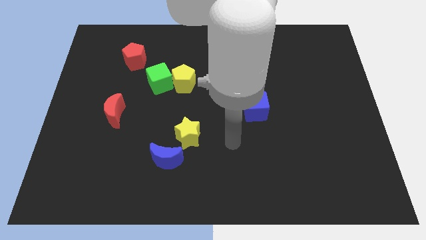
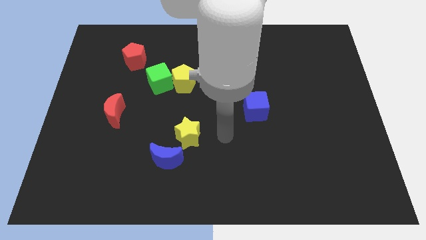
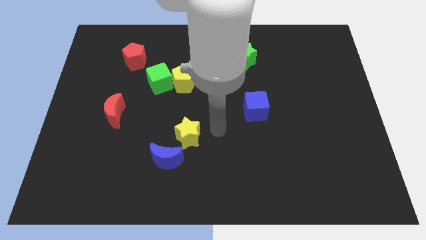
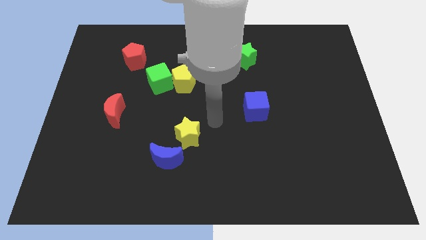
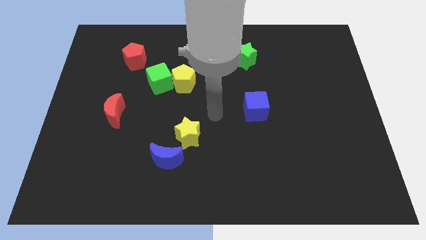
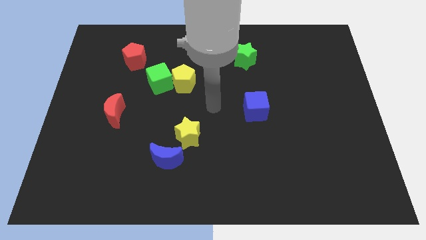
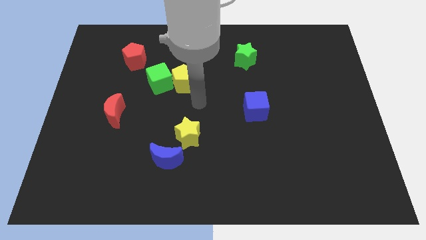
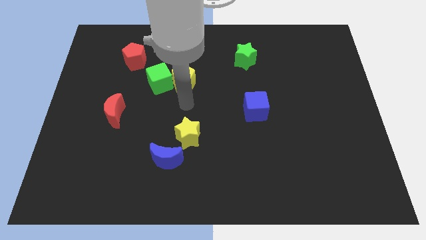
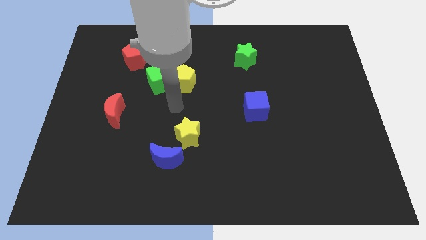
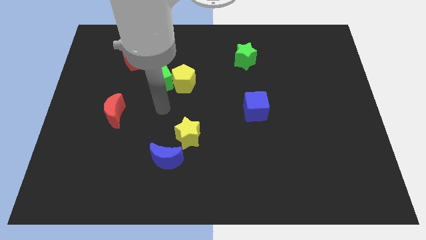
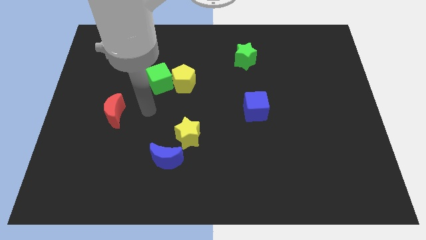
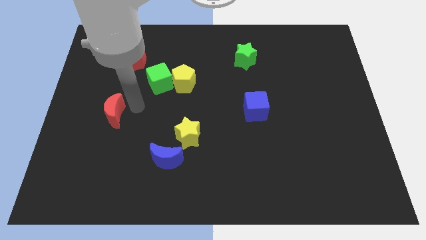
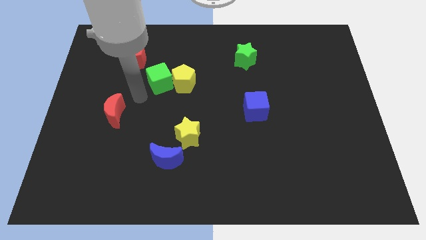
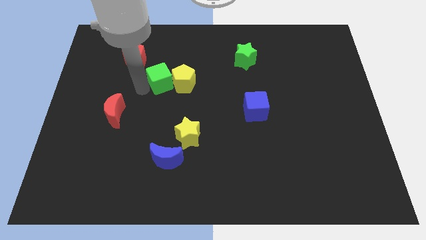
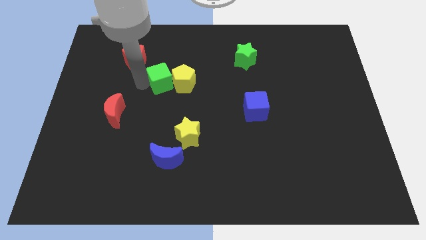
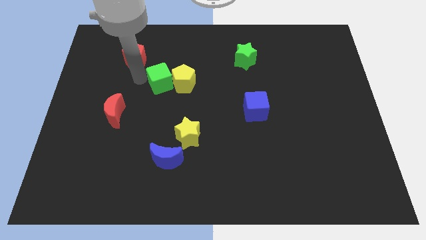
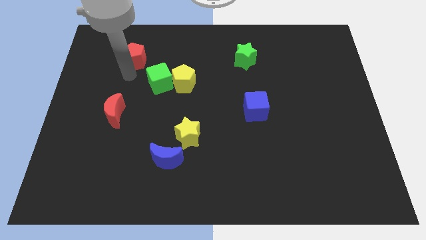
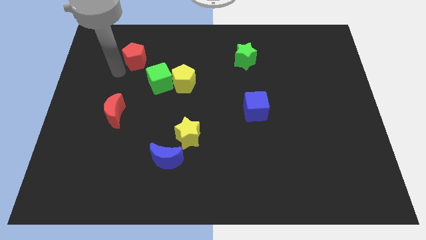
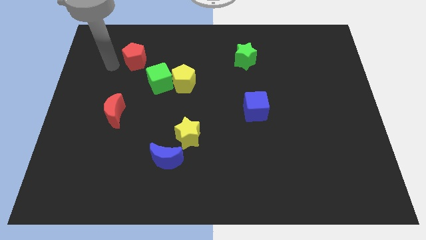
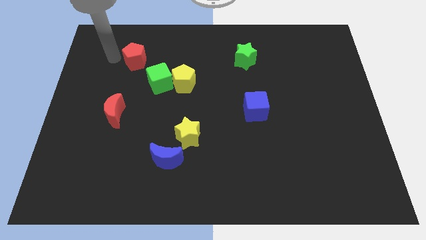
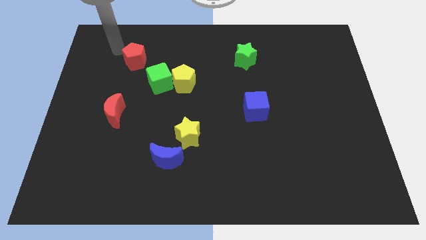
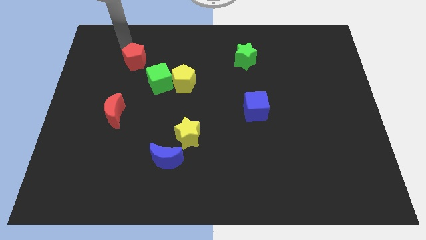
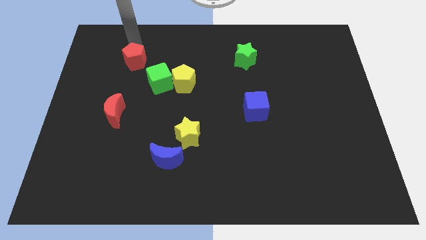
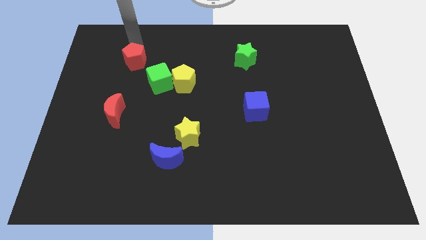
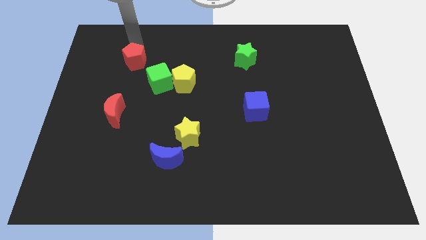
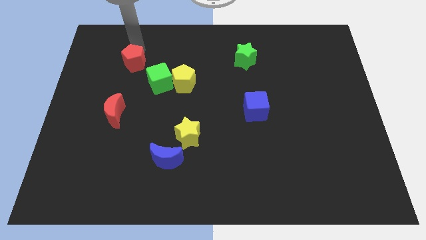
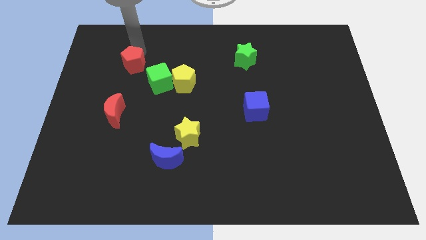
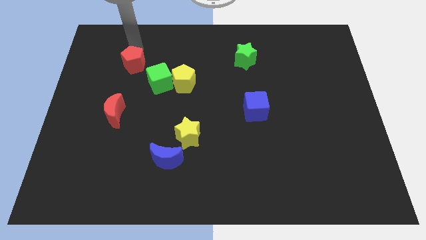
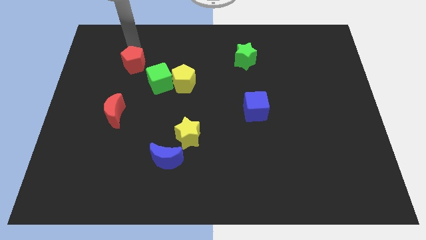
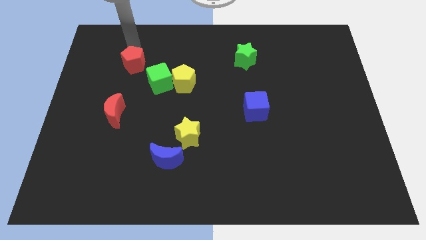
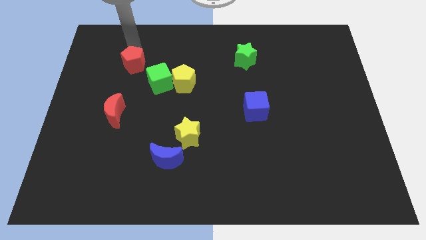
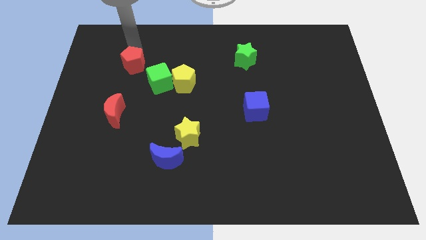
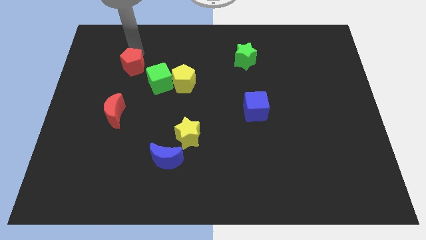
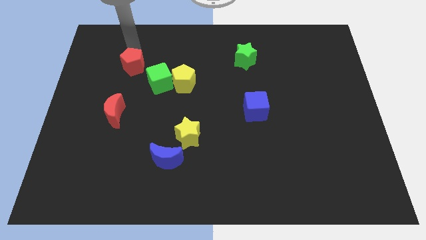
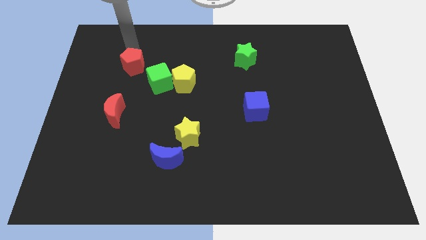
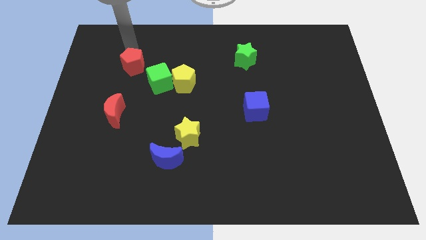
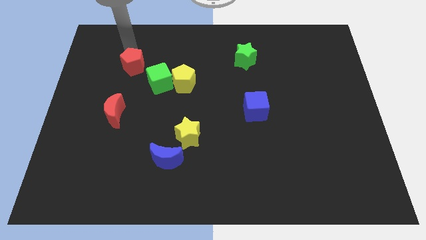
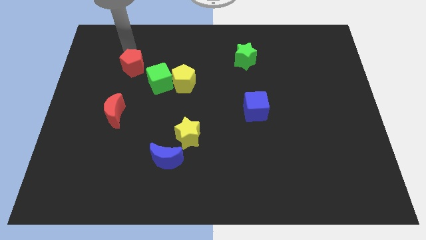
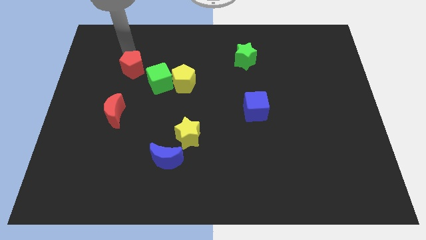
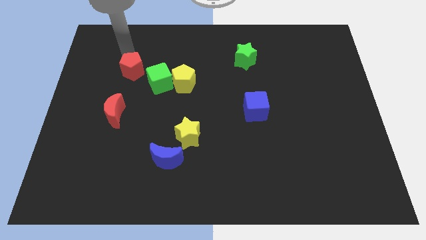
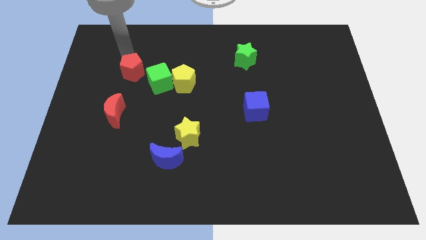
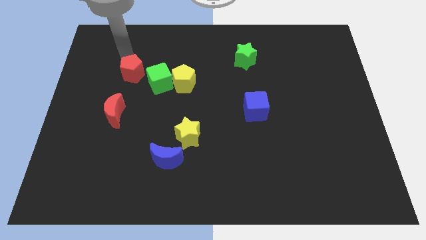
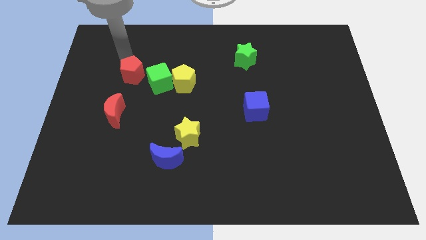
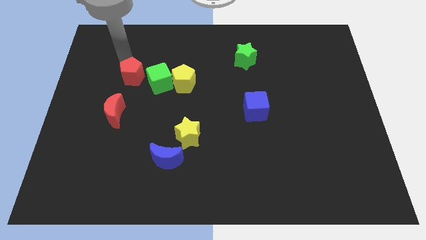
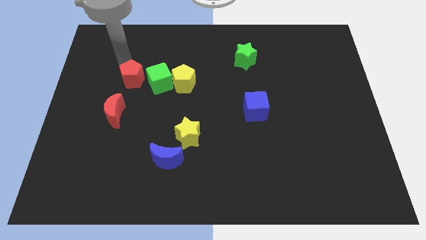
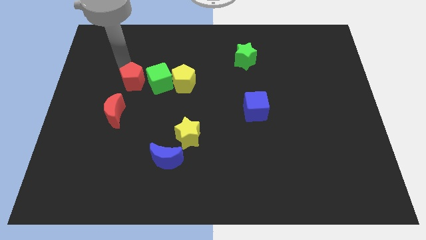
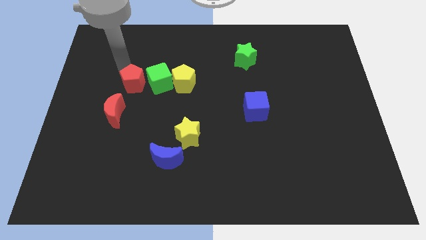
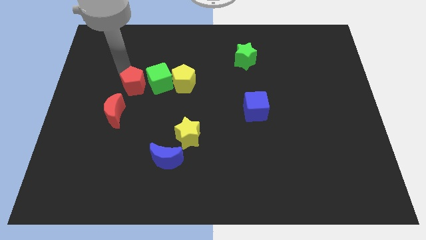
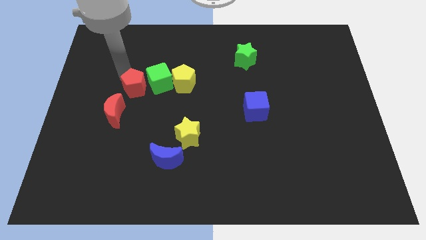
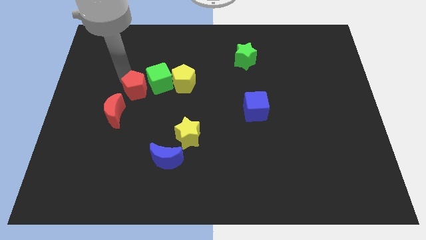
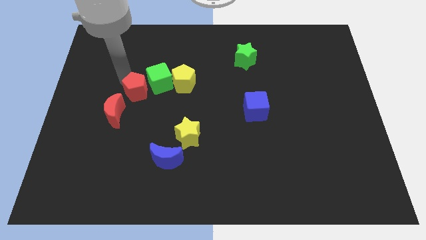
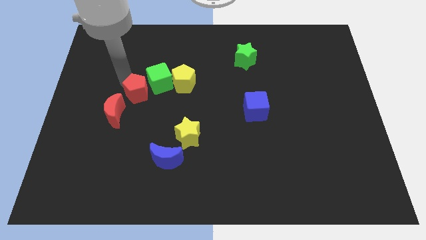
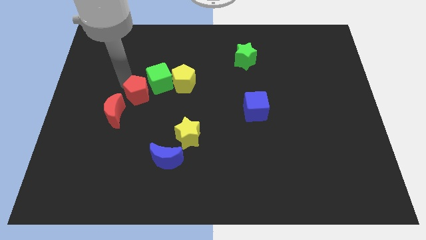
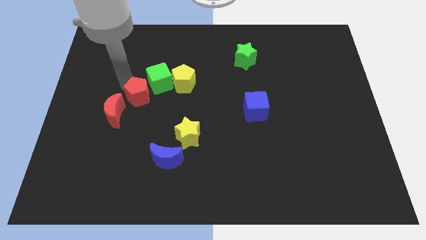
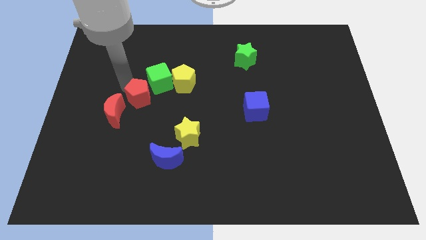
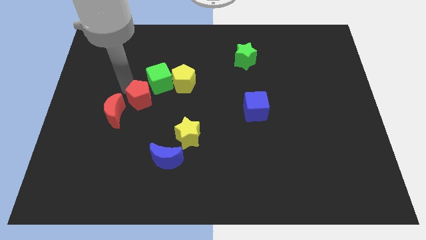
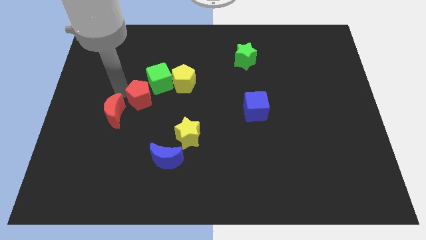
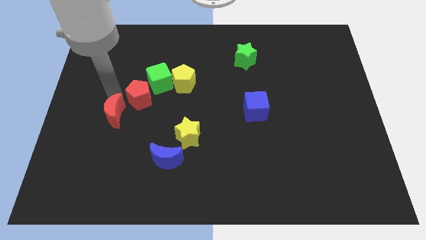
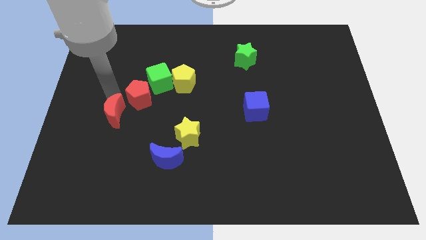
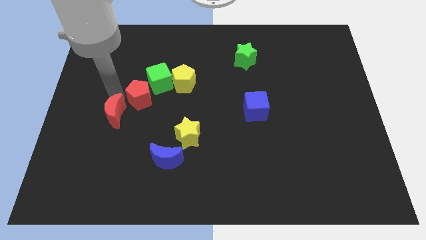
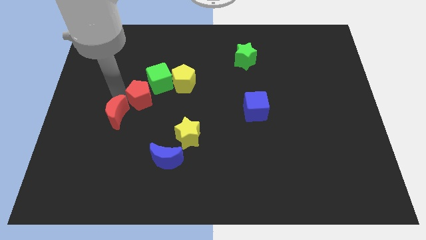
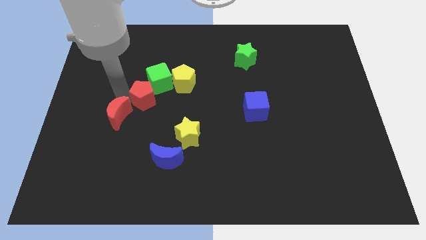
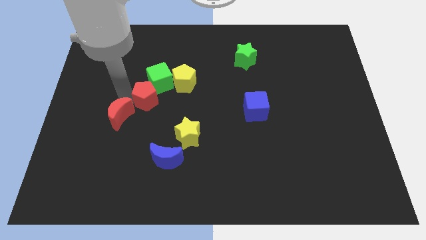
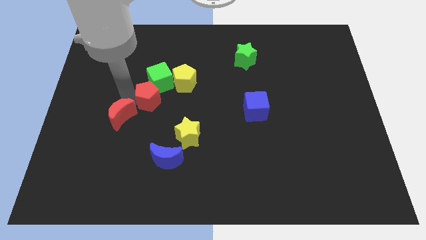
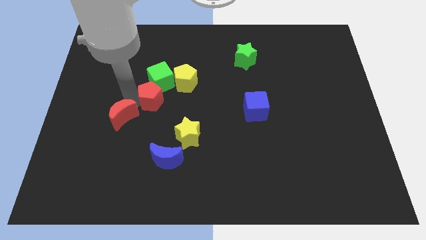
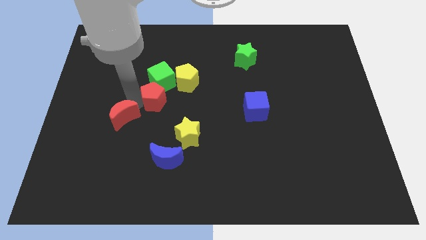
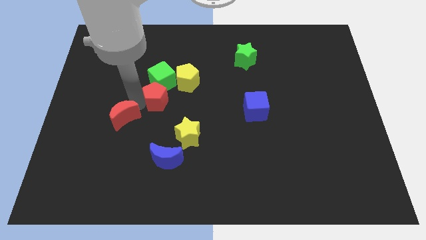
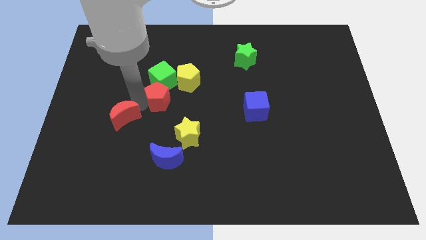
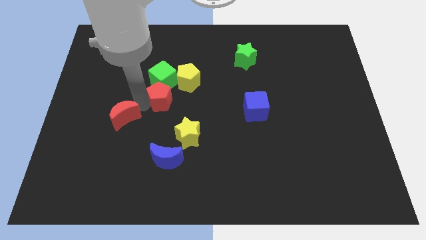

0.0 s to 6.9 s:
push the red pentagon to the center
